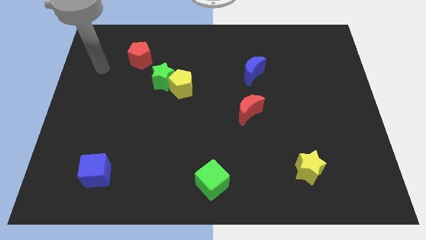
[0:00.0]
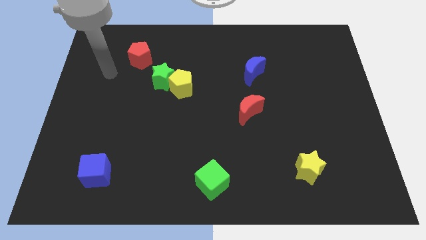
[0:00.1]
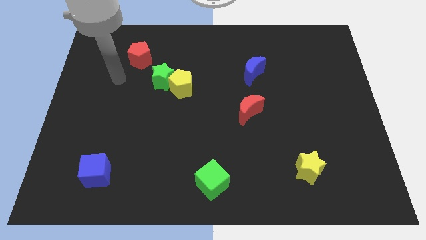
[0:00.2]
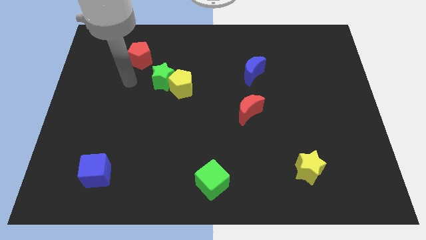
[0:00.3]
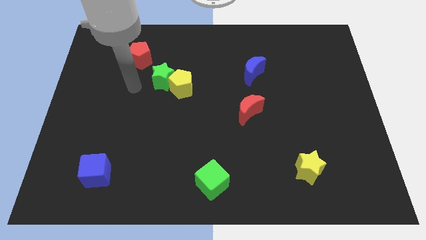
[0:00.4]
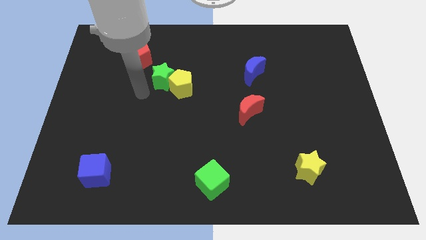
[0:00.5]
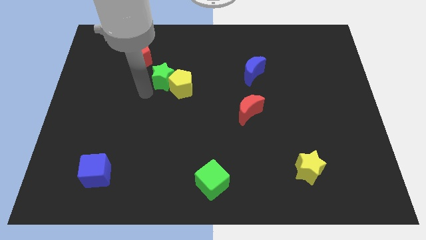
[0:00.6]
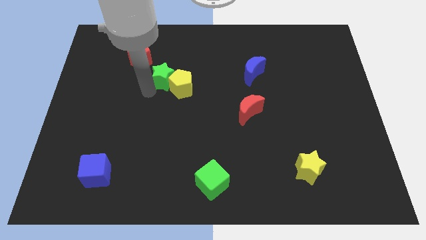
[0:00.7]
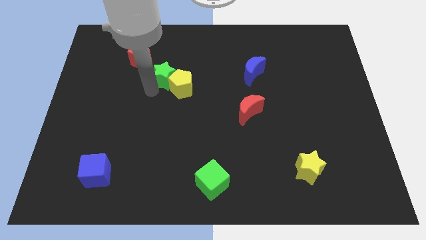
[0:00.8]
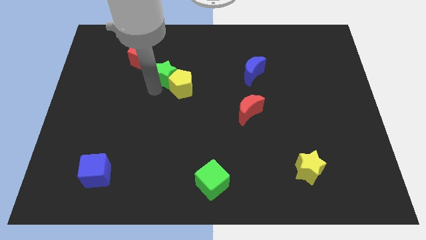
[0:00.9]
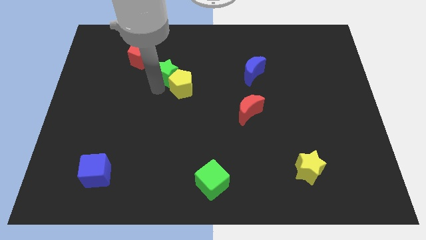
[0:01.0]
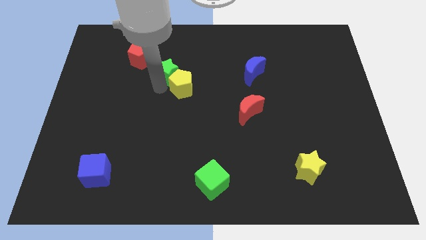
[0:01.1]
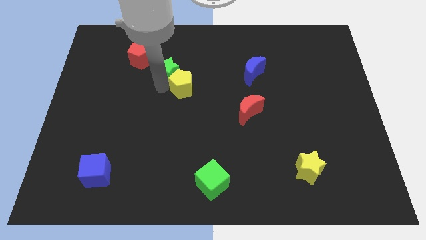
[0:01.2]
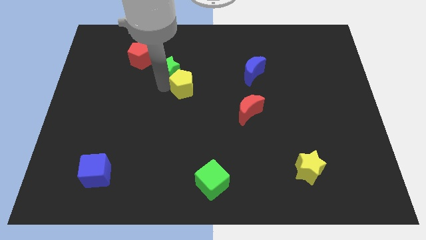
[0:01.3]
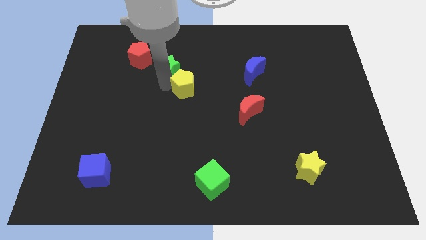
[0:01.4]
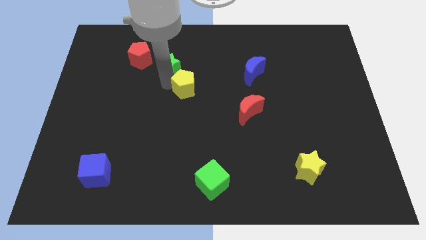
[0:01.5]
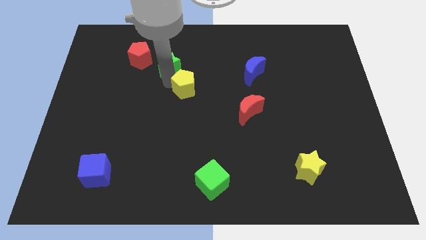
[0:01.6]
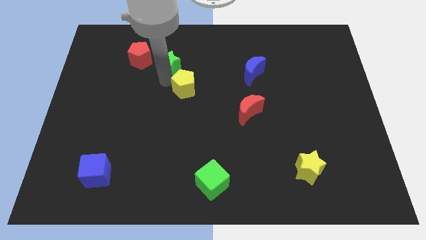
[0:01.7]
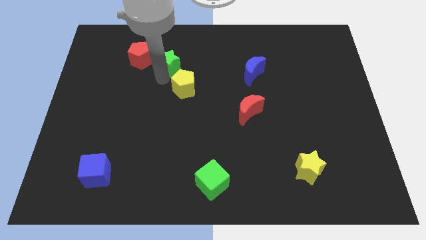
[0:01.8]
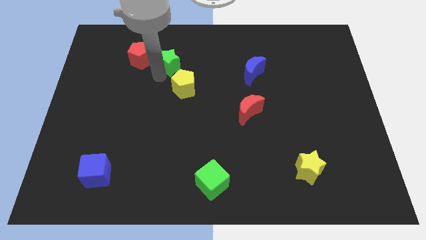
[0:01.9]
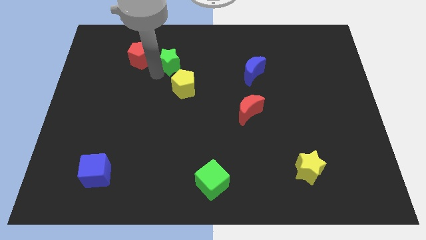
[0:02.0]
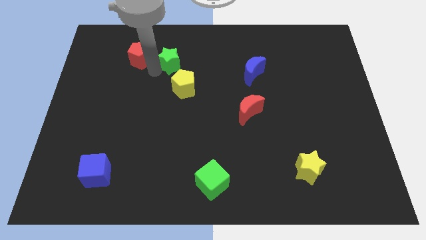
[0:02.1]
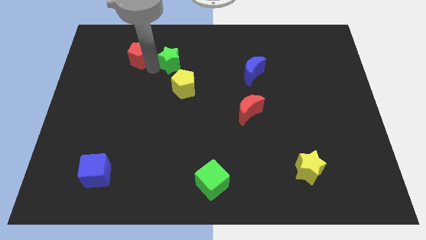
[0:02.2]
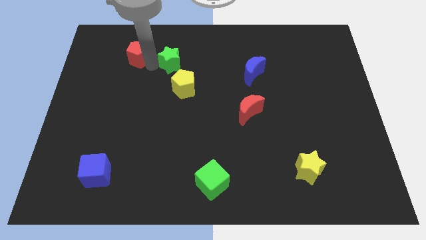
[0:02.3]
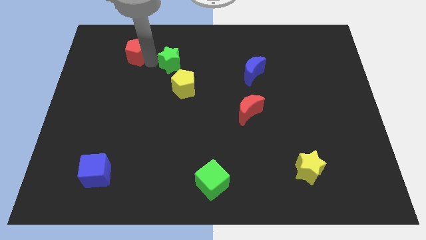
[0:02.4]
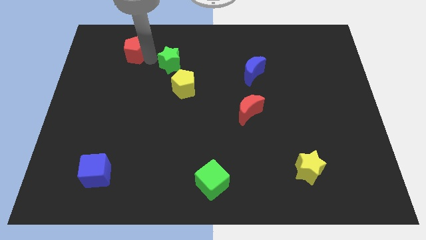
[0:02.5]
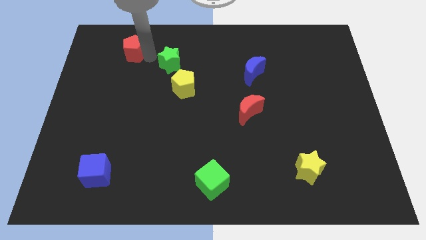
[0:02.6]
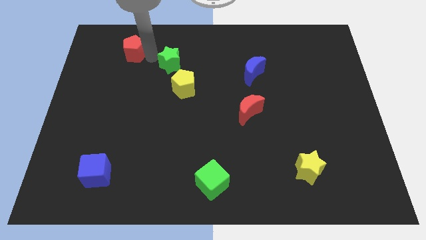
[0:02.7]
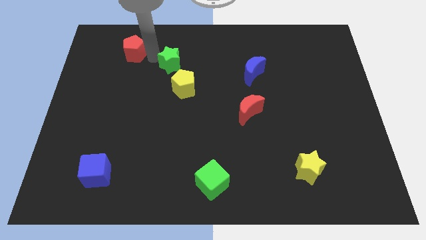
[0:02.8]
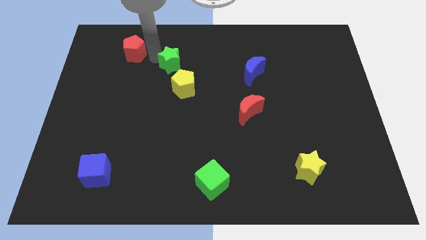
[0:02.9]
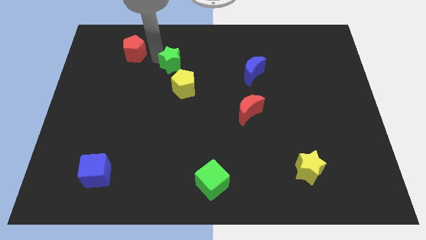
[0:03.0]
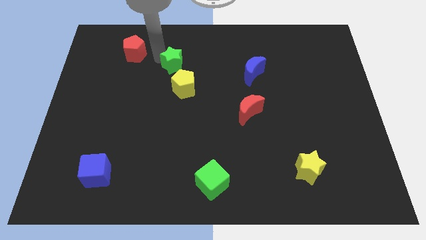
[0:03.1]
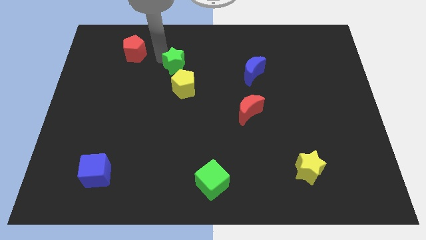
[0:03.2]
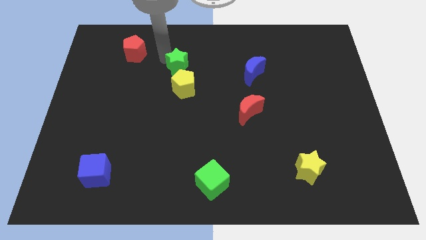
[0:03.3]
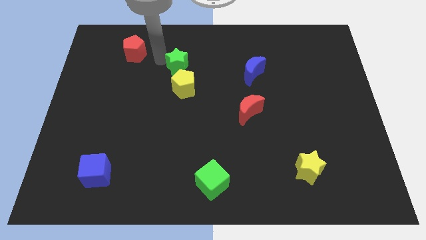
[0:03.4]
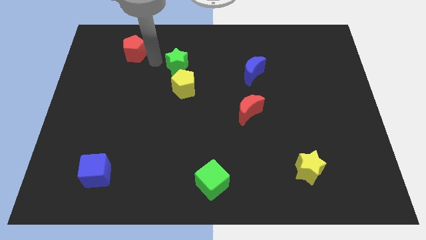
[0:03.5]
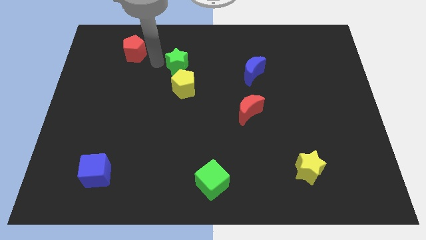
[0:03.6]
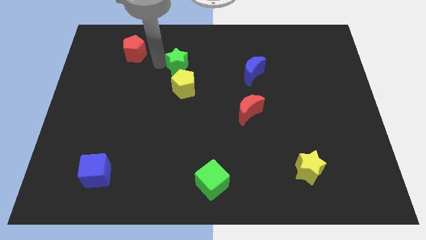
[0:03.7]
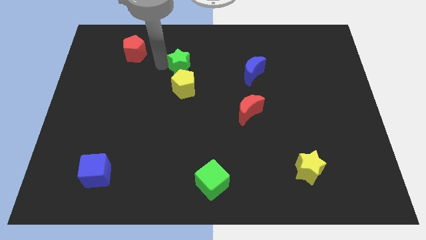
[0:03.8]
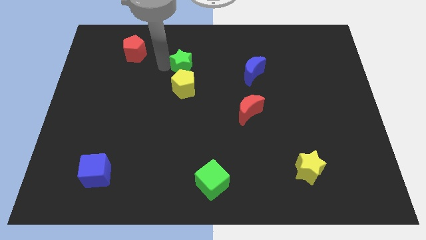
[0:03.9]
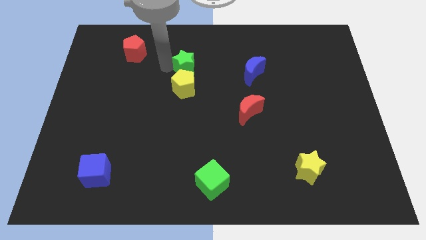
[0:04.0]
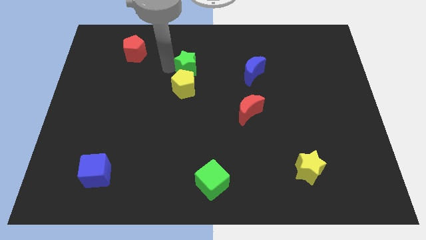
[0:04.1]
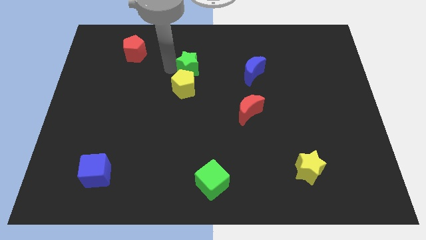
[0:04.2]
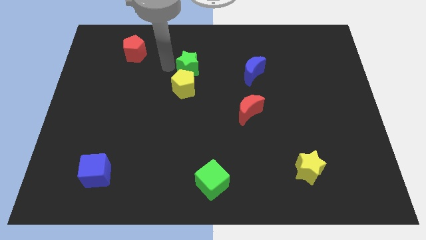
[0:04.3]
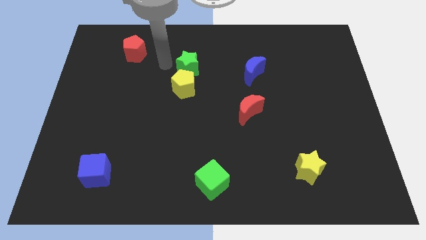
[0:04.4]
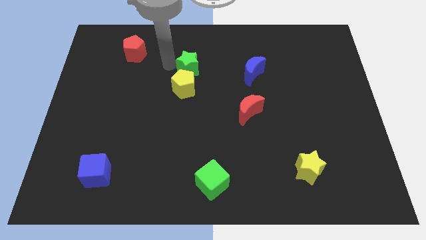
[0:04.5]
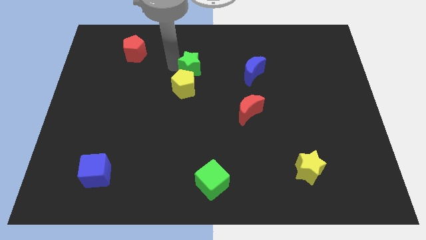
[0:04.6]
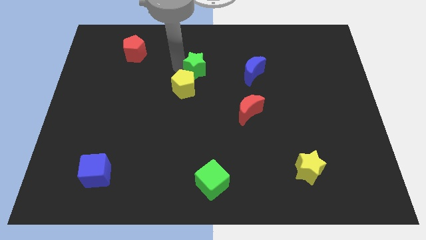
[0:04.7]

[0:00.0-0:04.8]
move the green star right somewhat

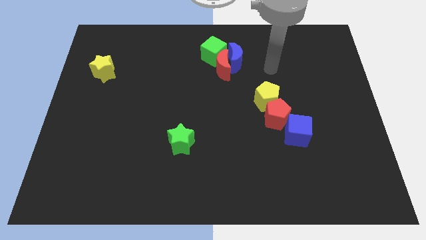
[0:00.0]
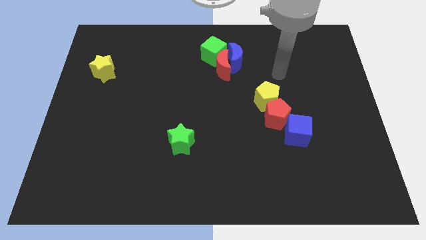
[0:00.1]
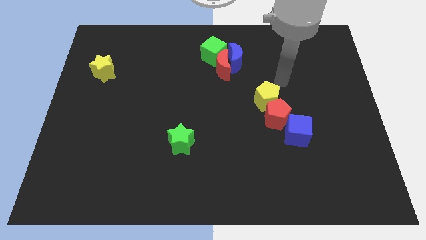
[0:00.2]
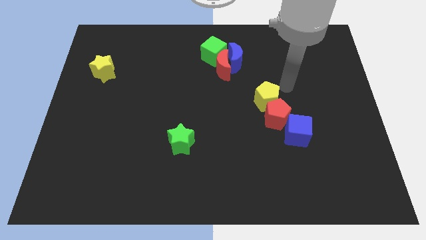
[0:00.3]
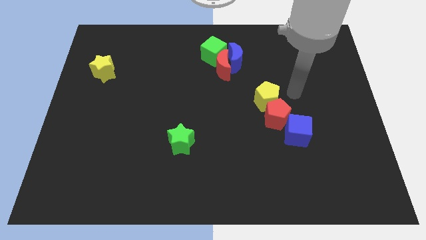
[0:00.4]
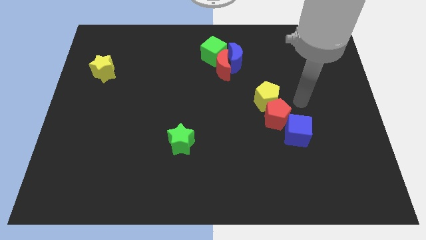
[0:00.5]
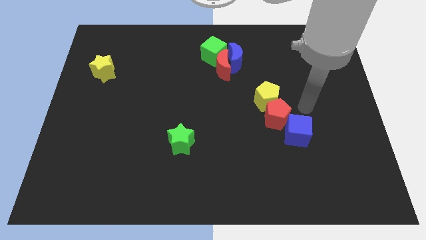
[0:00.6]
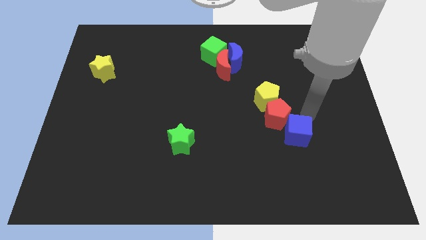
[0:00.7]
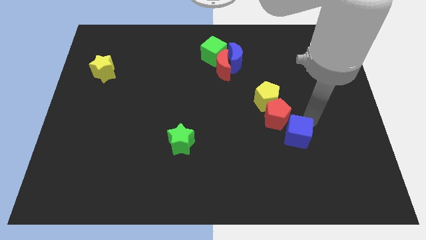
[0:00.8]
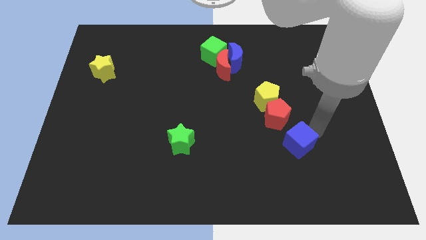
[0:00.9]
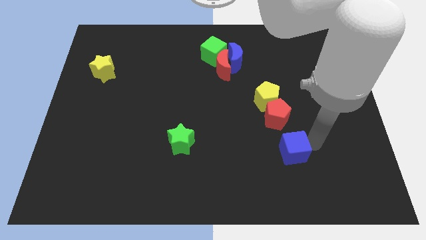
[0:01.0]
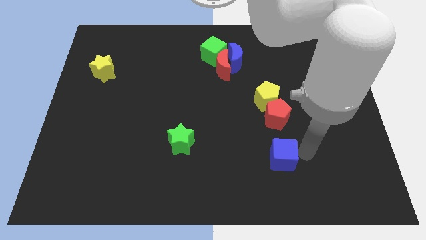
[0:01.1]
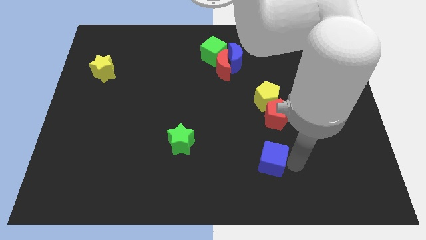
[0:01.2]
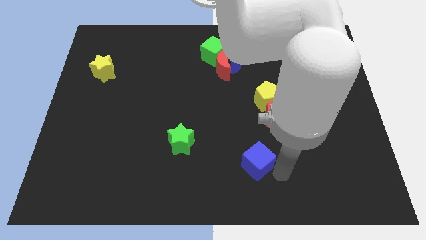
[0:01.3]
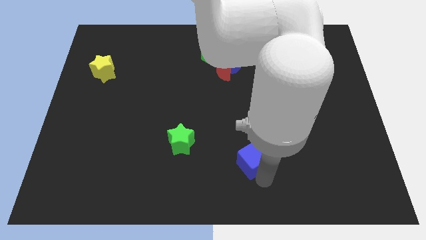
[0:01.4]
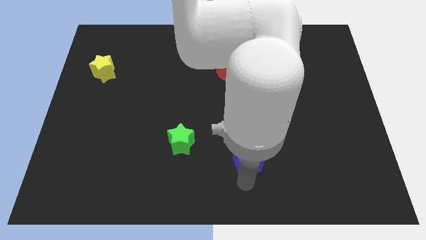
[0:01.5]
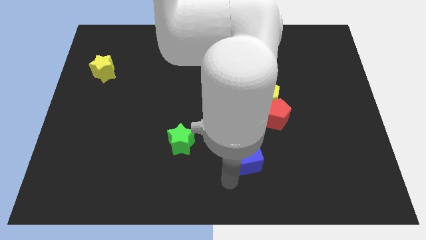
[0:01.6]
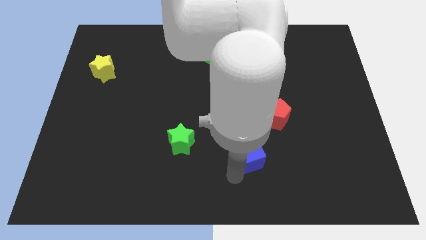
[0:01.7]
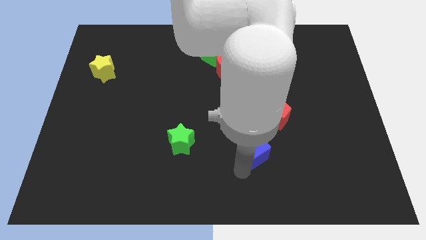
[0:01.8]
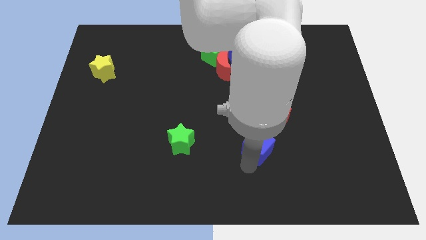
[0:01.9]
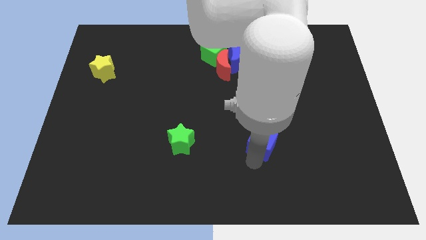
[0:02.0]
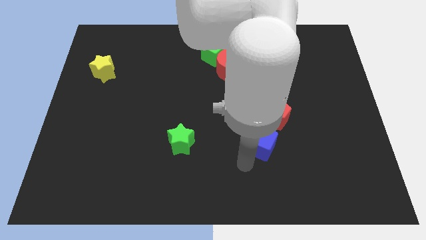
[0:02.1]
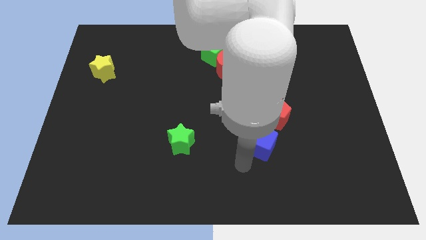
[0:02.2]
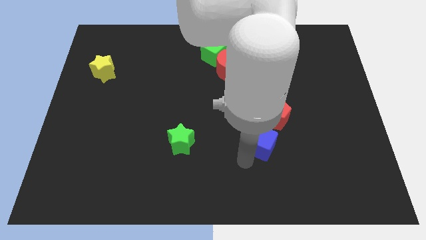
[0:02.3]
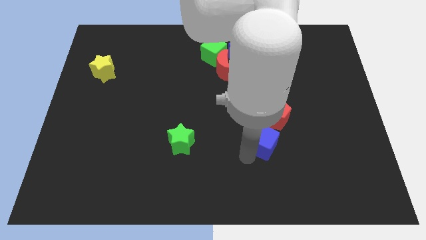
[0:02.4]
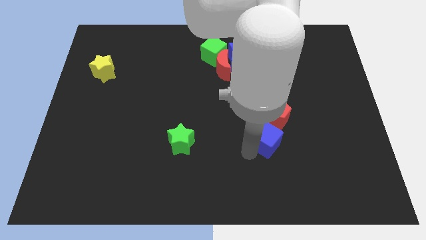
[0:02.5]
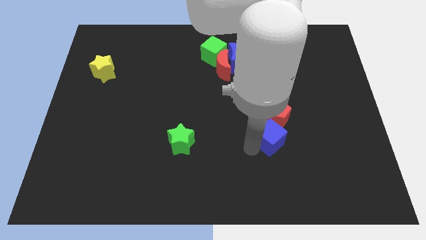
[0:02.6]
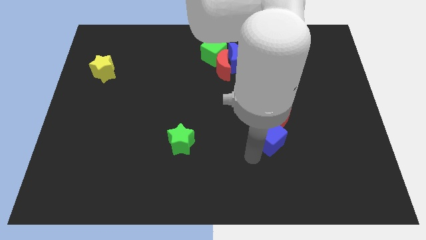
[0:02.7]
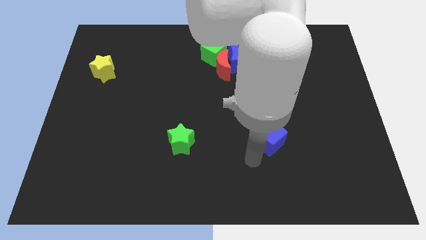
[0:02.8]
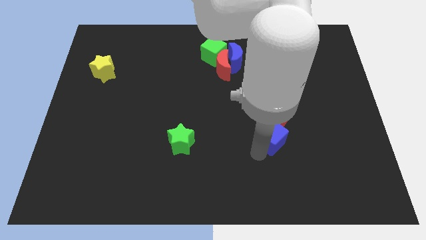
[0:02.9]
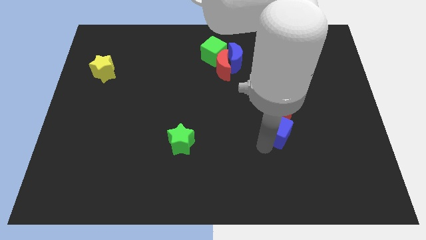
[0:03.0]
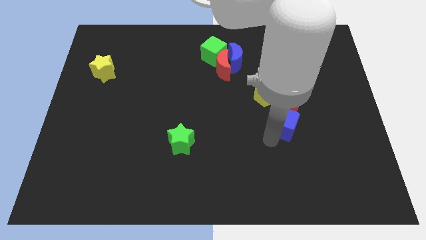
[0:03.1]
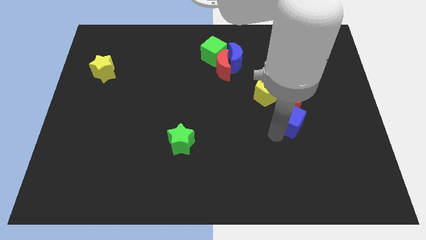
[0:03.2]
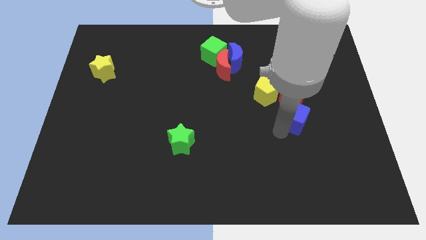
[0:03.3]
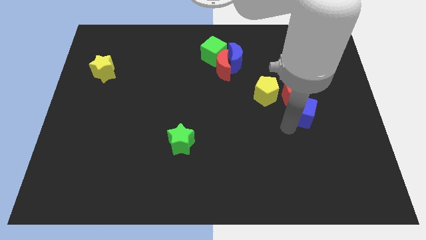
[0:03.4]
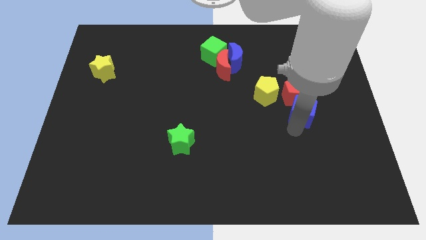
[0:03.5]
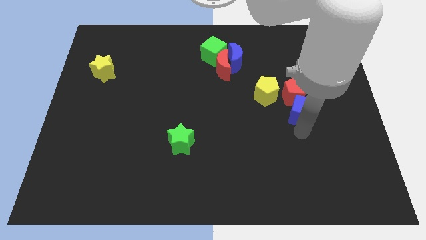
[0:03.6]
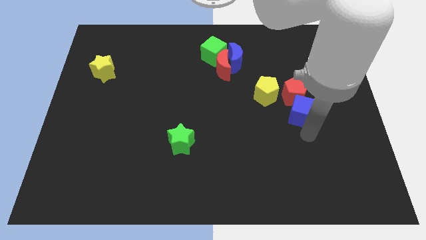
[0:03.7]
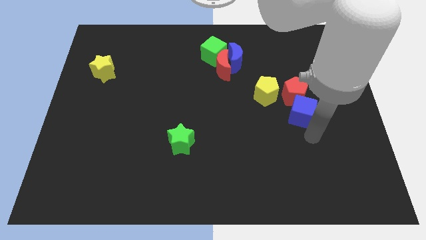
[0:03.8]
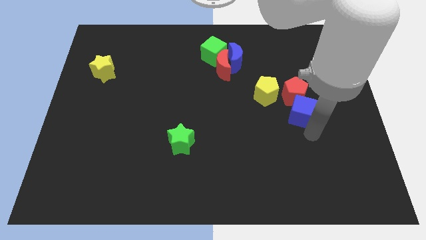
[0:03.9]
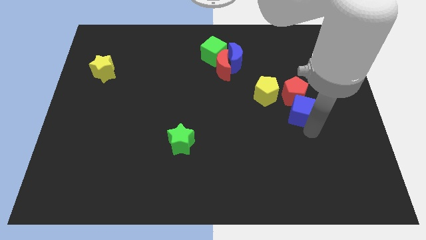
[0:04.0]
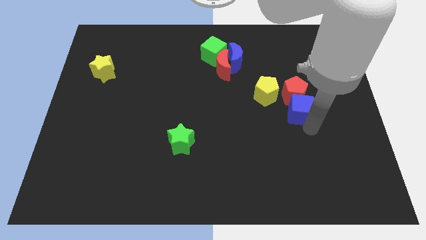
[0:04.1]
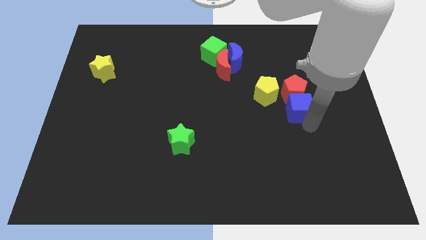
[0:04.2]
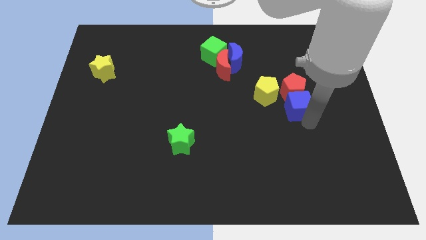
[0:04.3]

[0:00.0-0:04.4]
slide the blue cube up a bit
